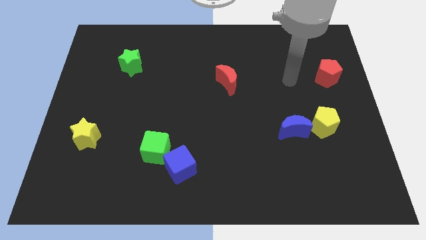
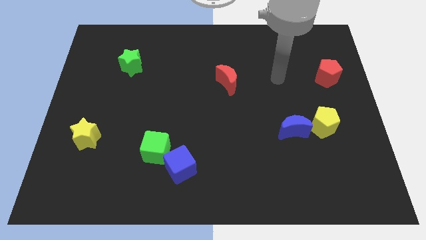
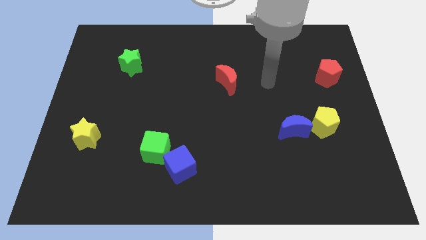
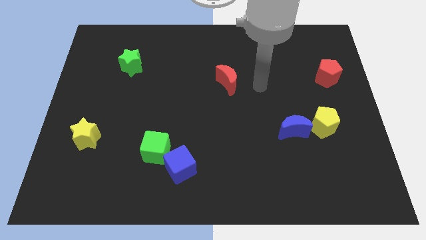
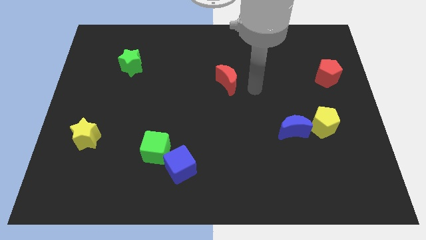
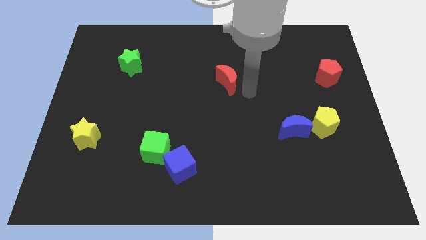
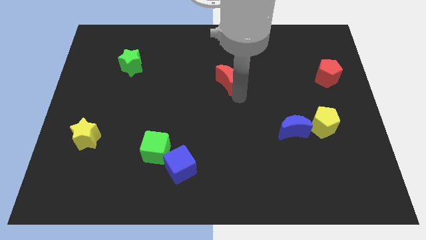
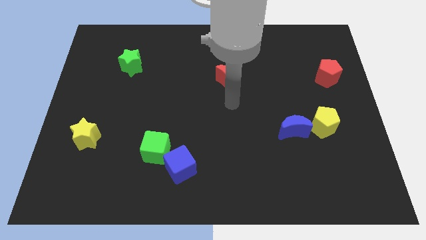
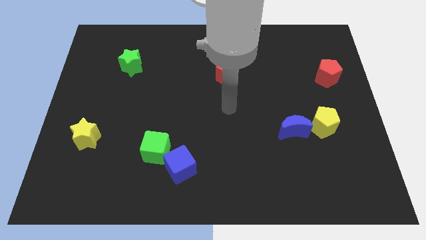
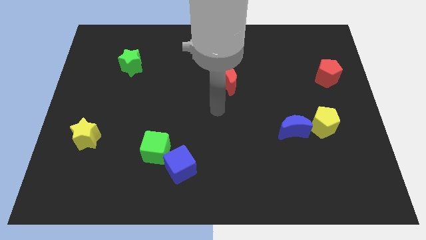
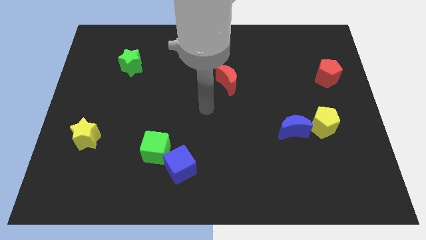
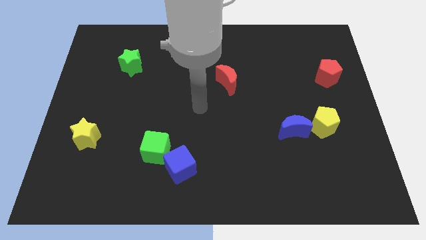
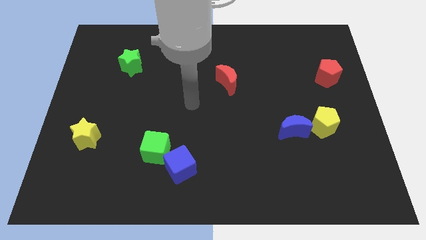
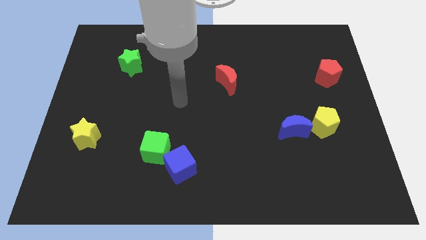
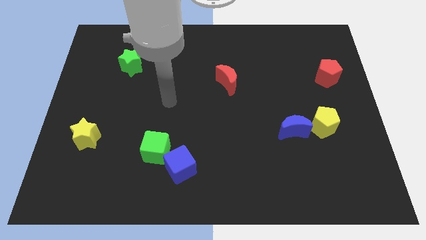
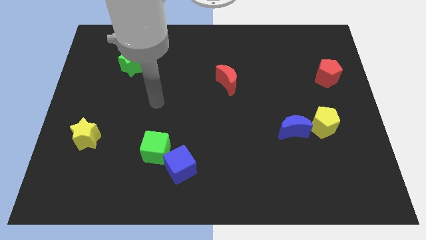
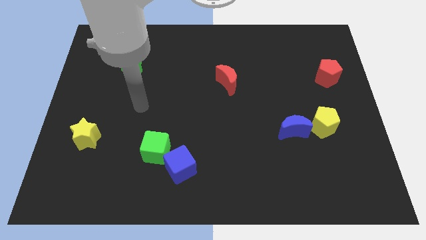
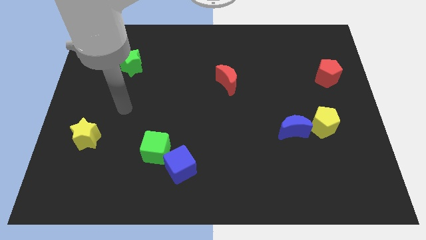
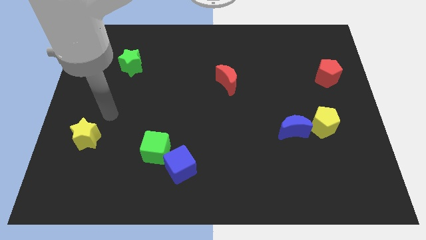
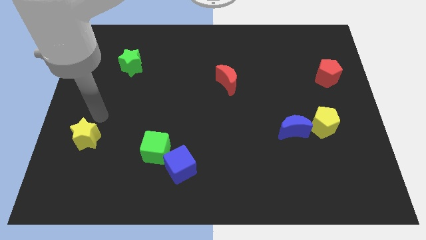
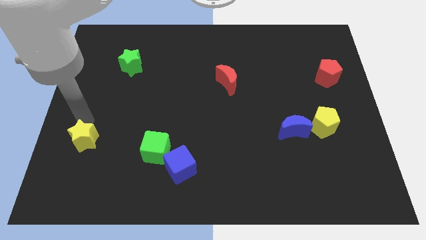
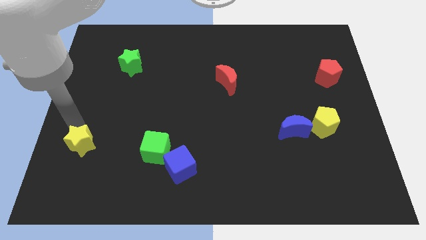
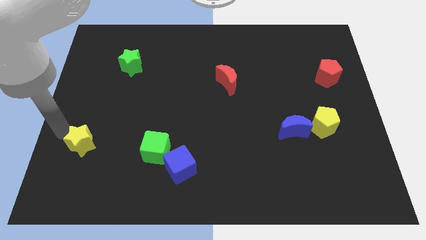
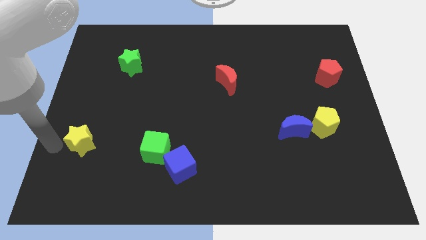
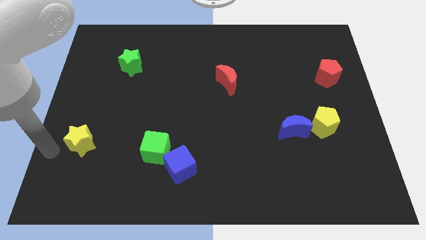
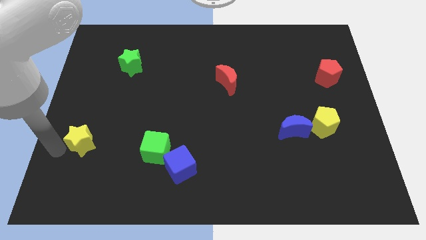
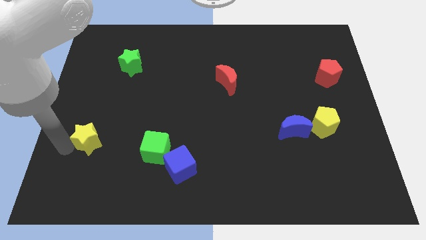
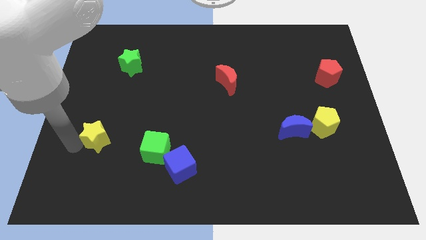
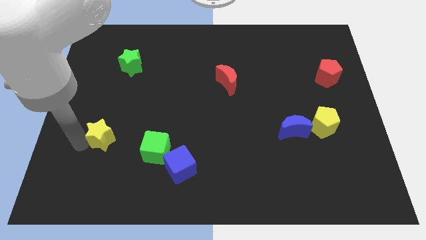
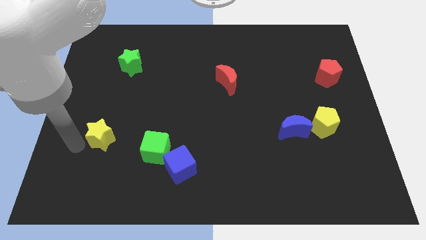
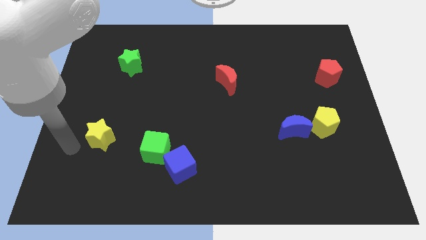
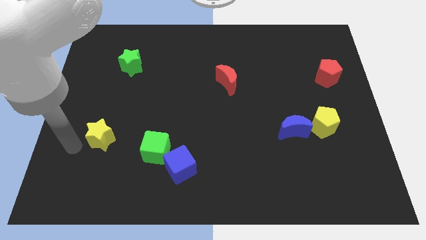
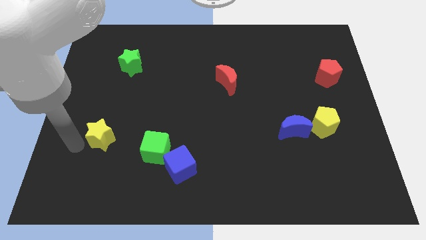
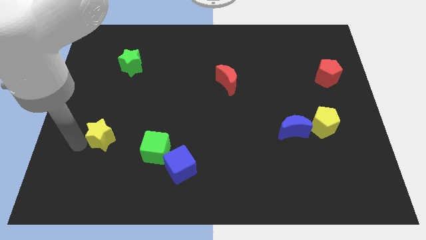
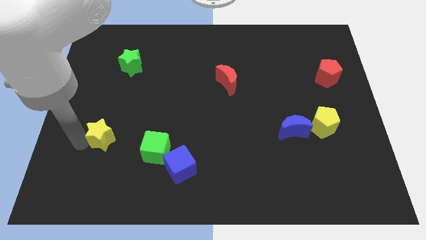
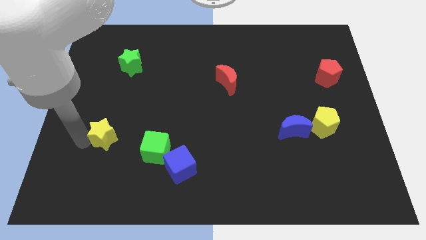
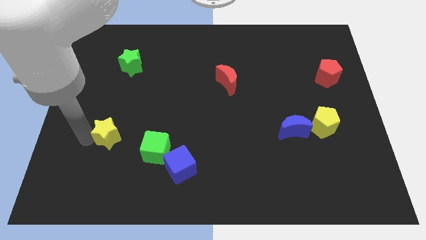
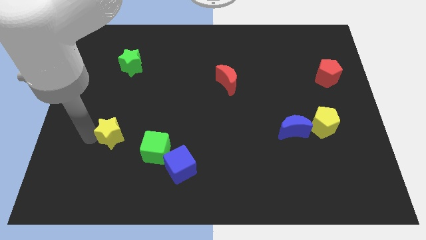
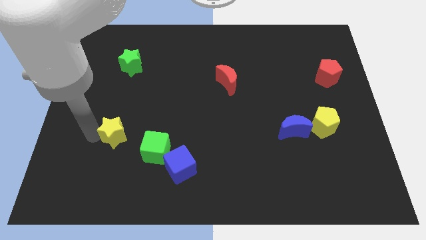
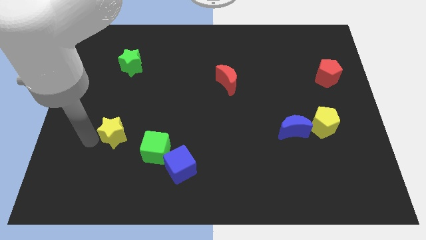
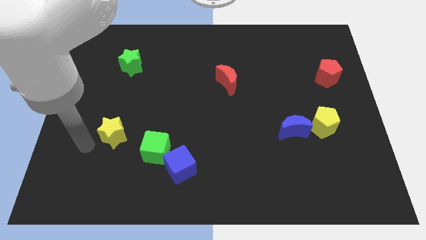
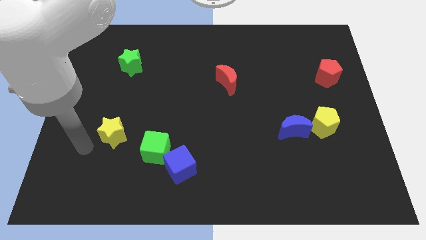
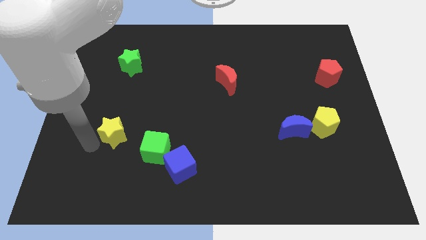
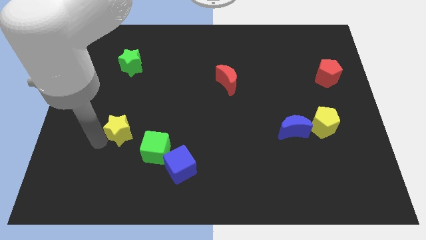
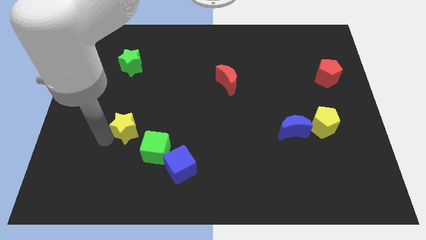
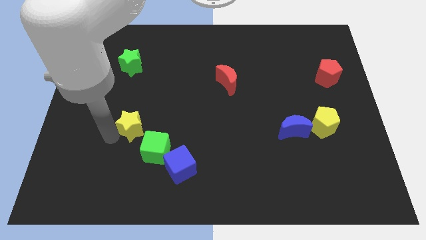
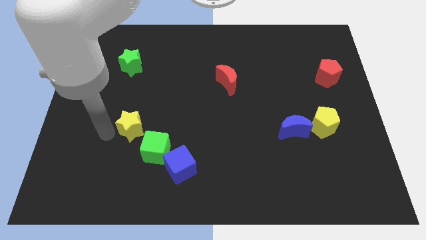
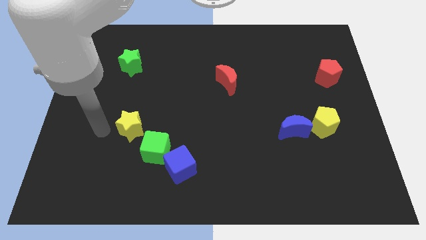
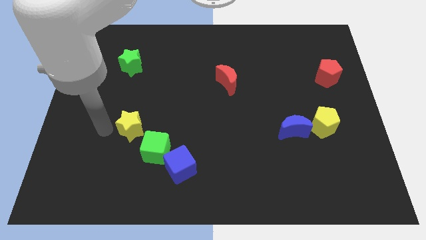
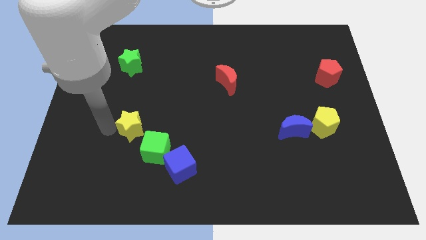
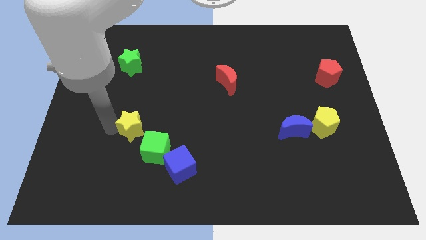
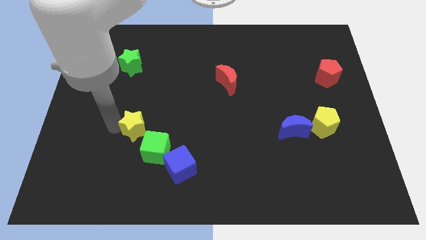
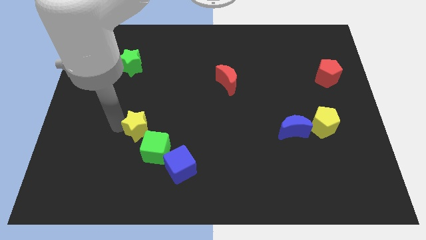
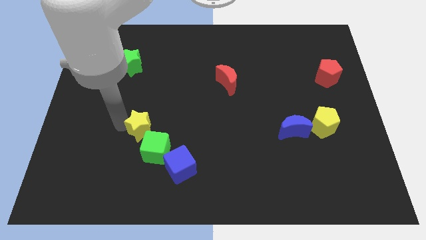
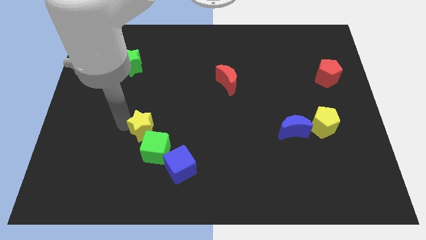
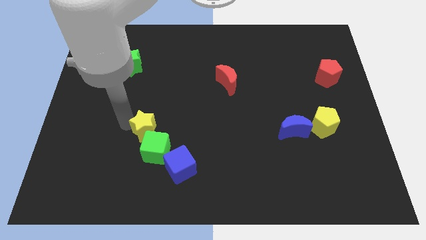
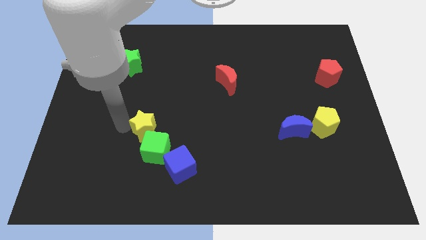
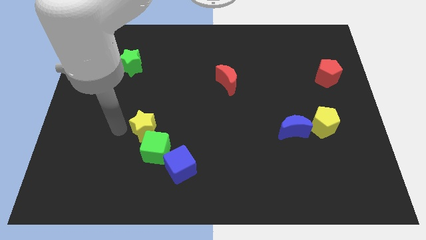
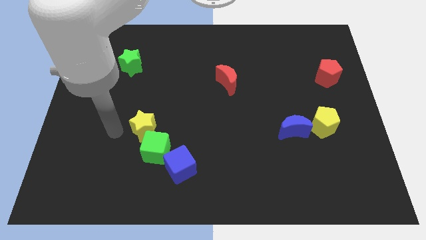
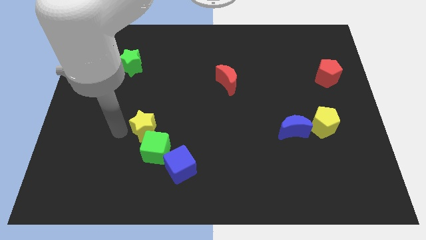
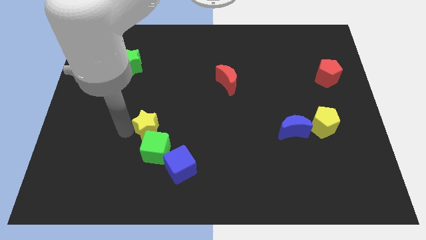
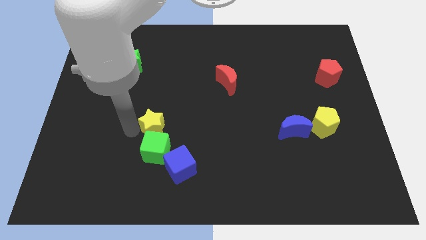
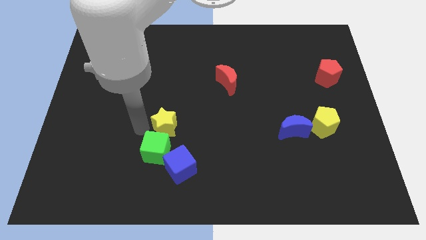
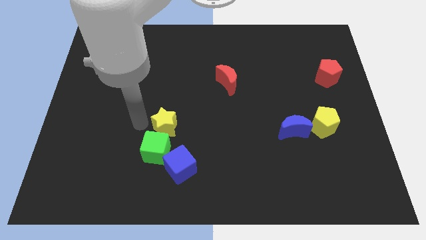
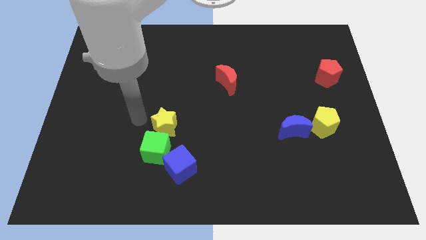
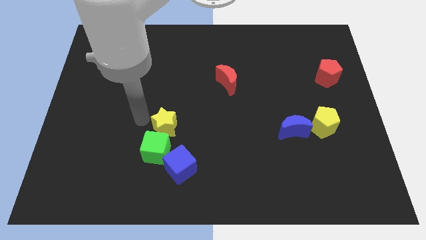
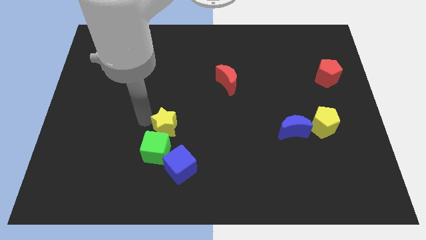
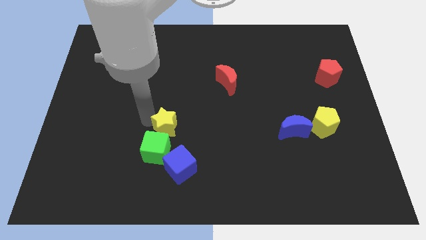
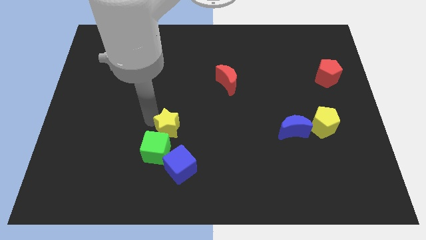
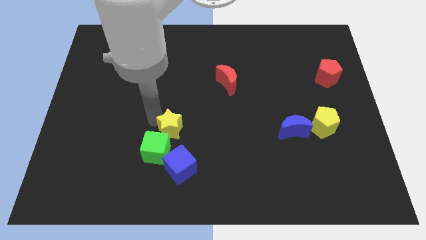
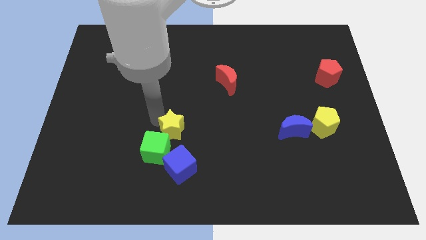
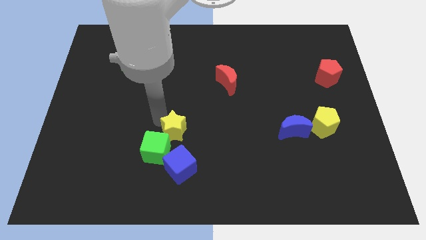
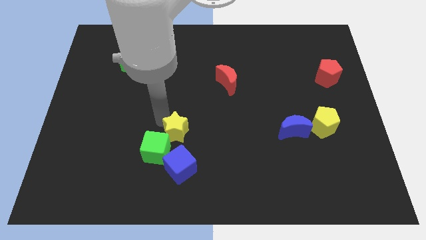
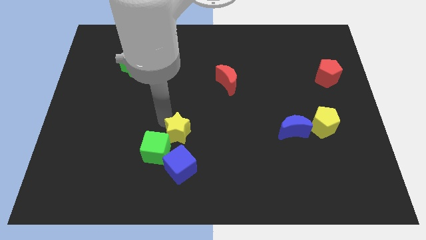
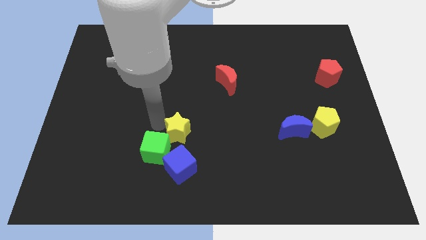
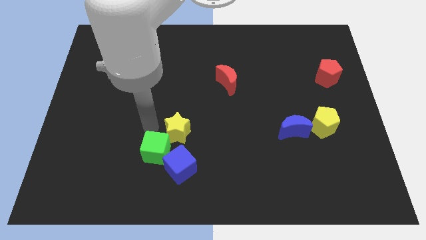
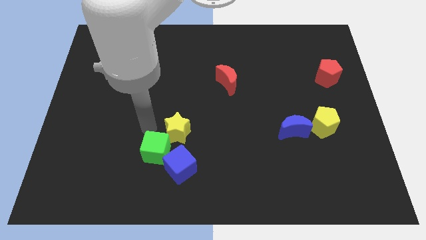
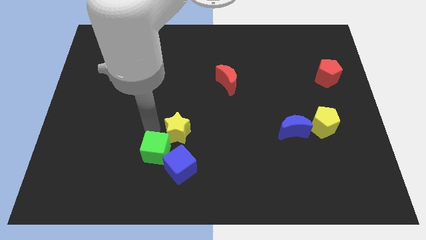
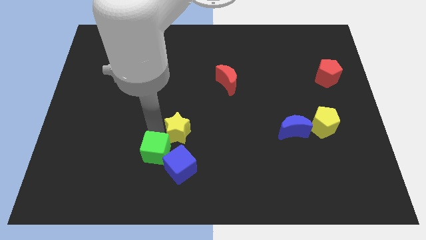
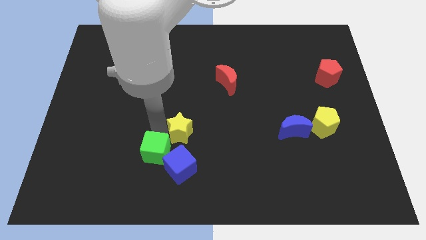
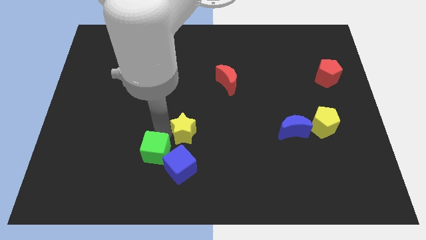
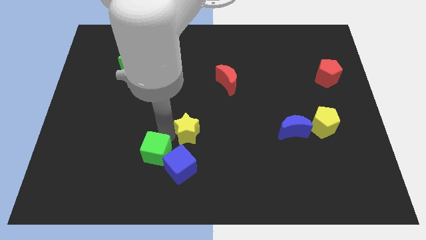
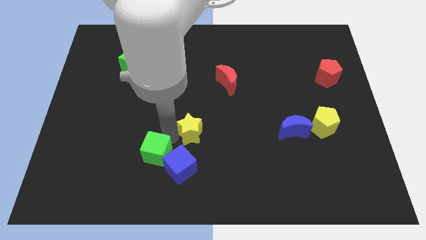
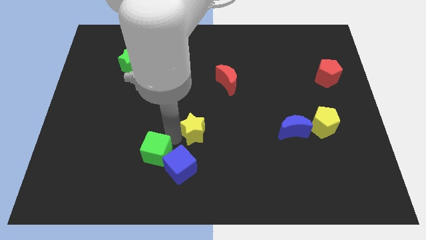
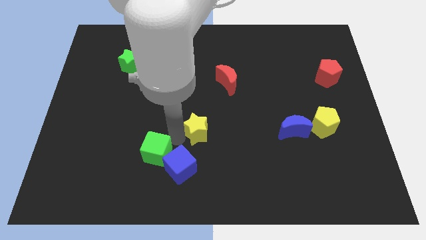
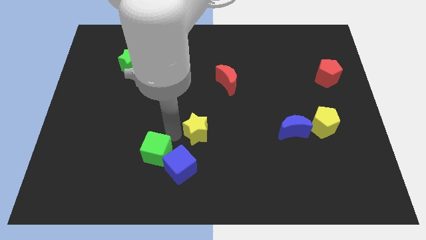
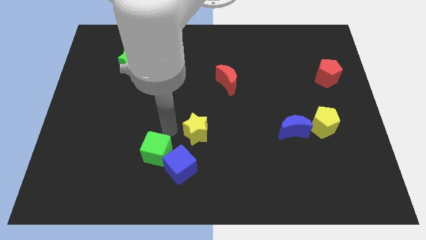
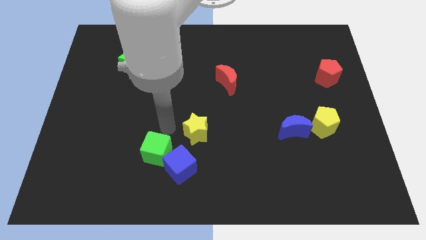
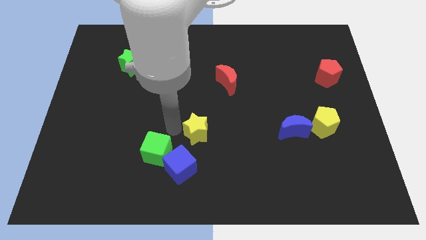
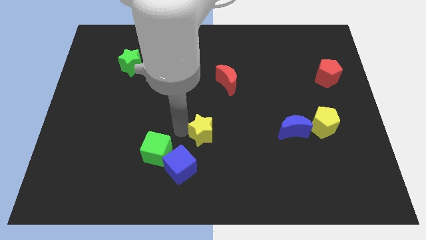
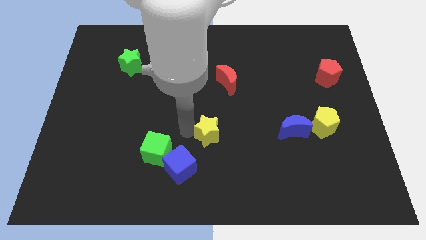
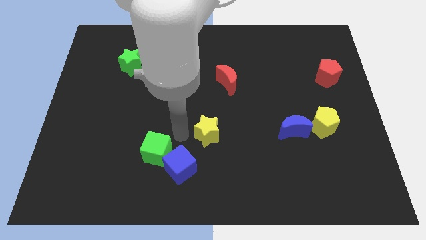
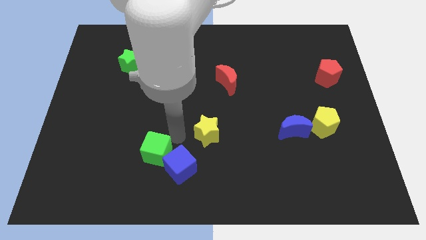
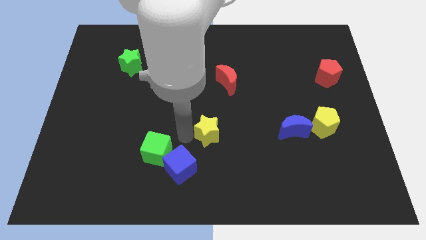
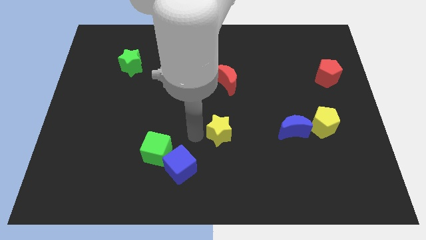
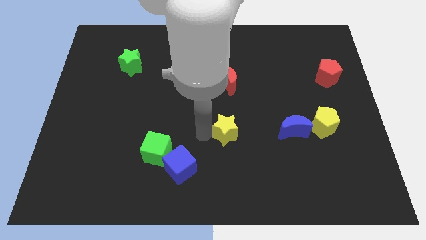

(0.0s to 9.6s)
push the yellow star just left of the blue moon
